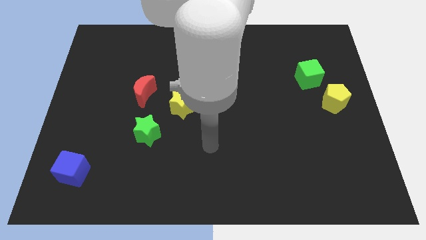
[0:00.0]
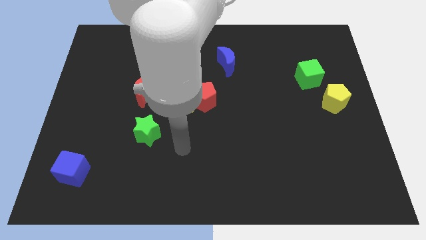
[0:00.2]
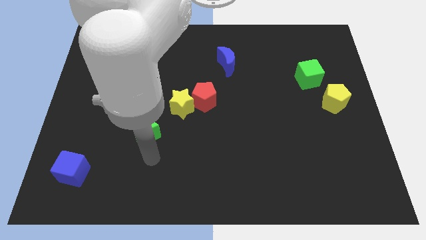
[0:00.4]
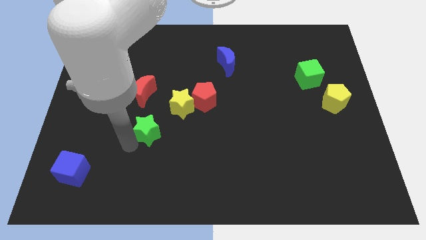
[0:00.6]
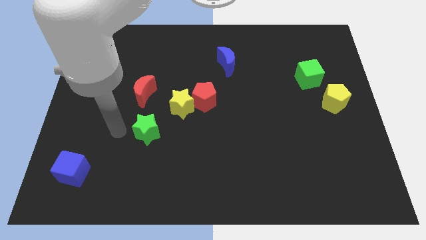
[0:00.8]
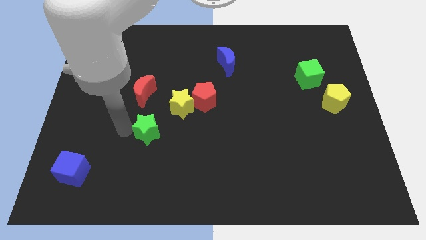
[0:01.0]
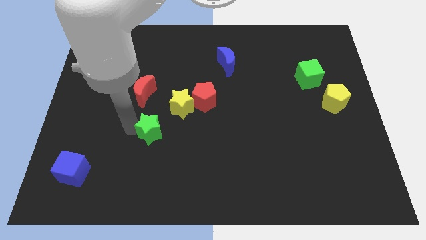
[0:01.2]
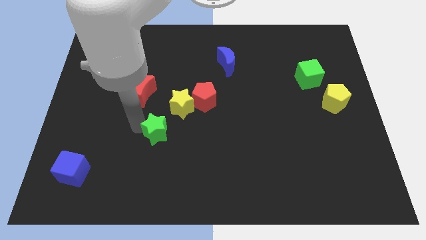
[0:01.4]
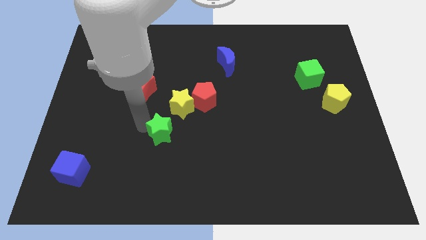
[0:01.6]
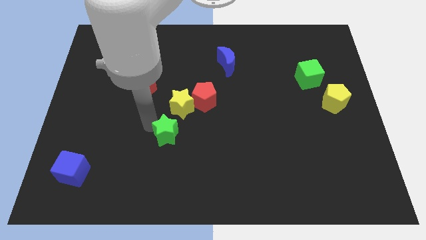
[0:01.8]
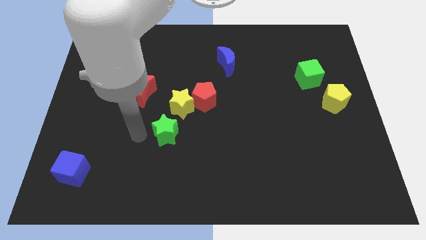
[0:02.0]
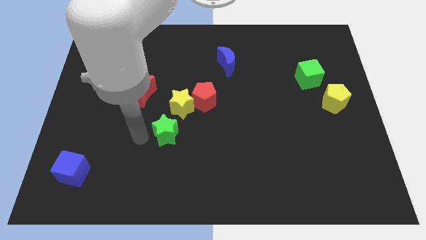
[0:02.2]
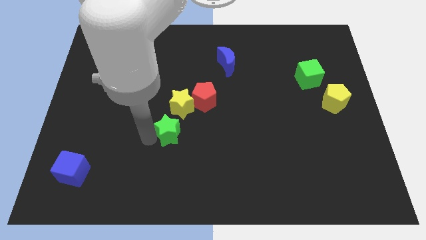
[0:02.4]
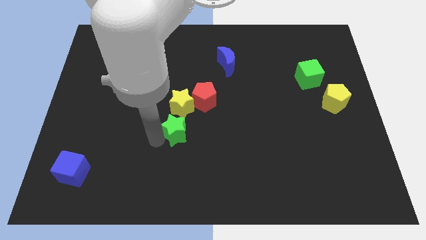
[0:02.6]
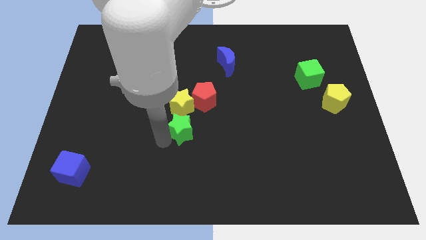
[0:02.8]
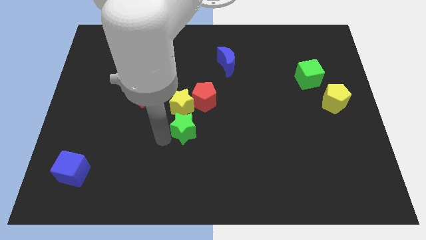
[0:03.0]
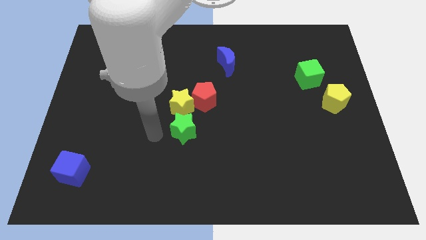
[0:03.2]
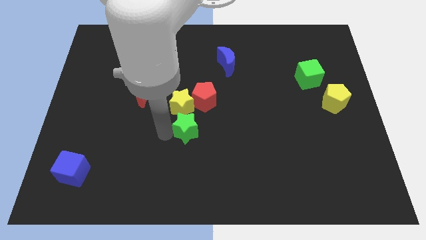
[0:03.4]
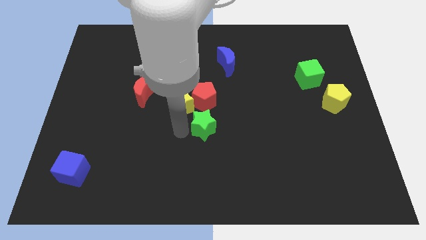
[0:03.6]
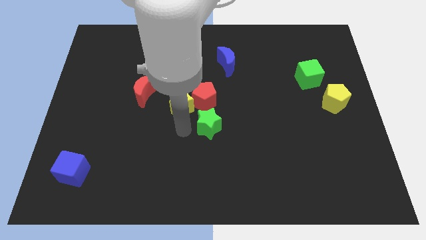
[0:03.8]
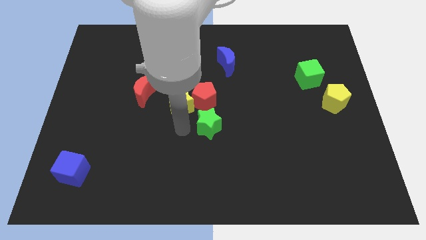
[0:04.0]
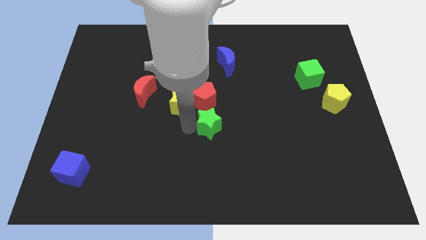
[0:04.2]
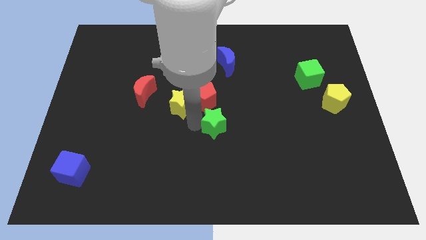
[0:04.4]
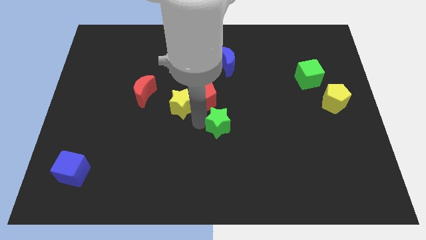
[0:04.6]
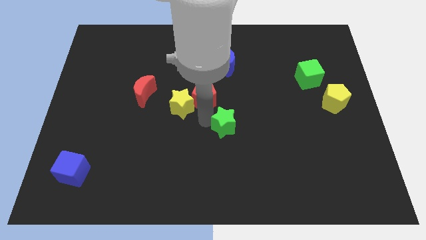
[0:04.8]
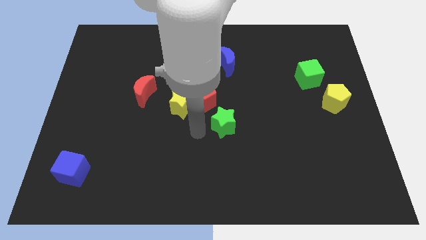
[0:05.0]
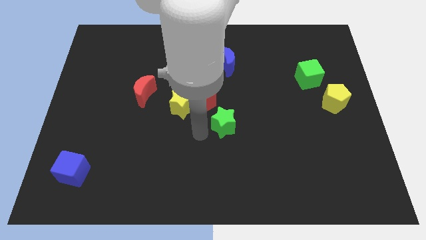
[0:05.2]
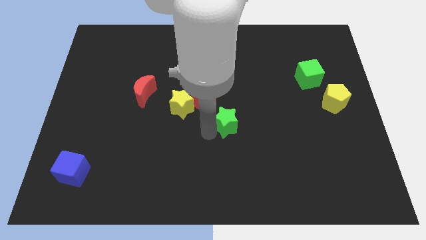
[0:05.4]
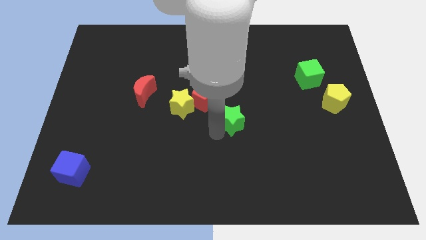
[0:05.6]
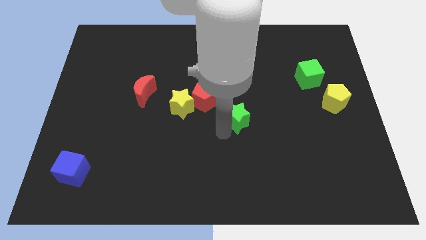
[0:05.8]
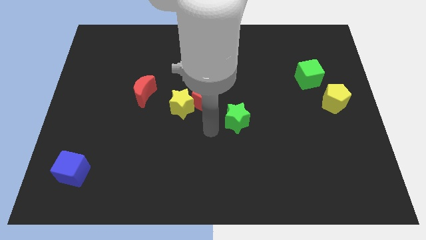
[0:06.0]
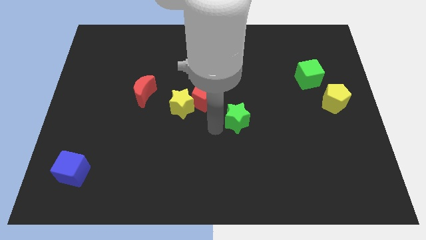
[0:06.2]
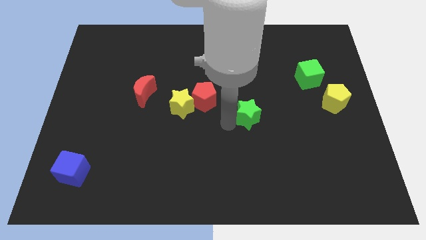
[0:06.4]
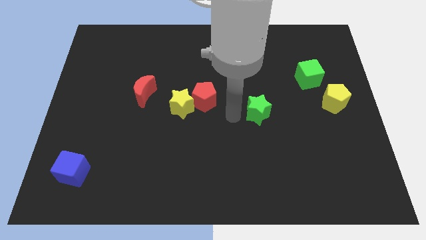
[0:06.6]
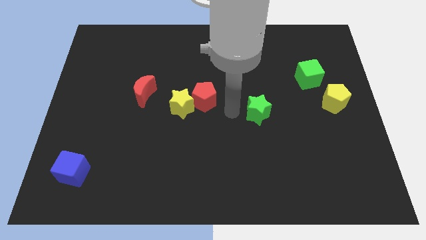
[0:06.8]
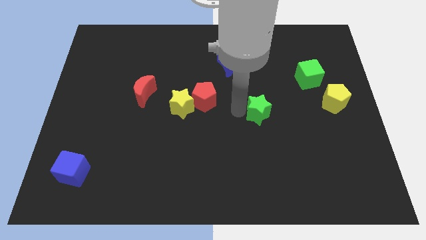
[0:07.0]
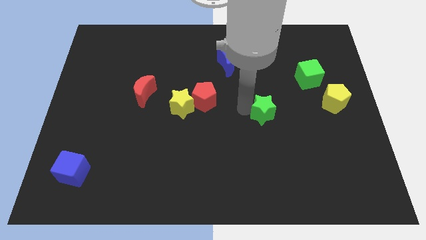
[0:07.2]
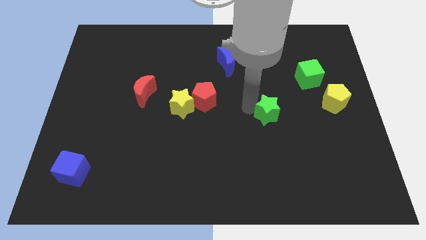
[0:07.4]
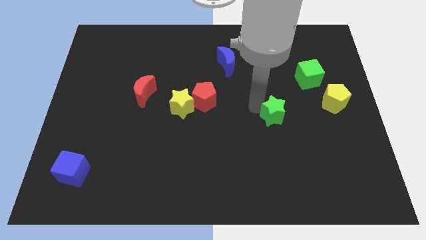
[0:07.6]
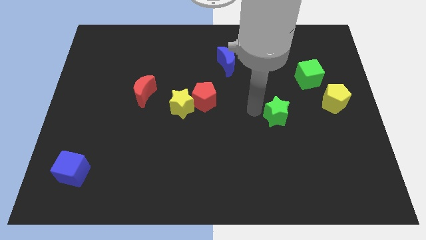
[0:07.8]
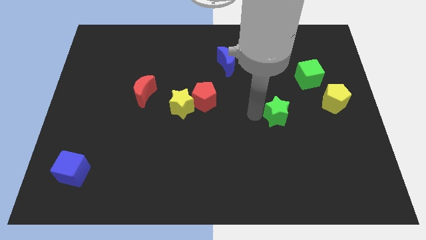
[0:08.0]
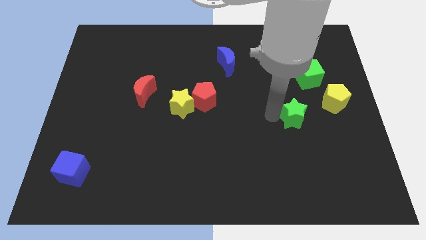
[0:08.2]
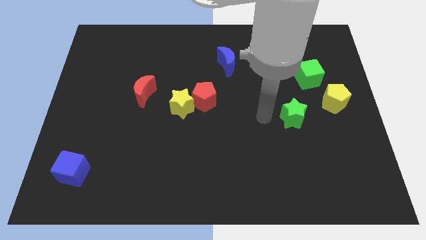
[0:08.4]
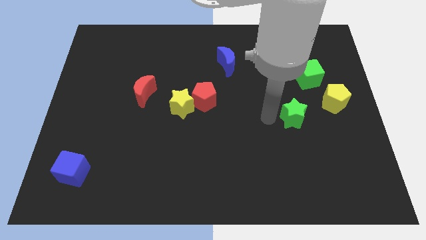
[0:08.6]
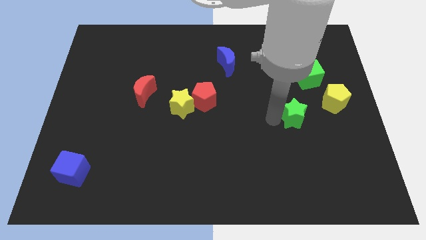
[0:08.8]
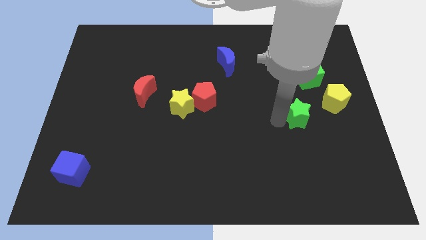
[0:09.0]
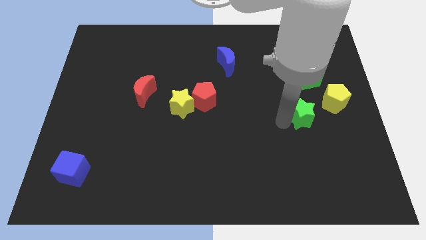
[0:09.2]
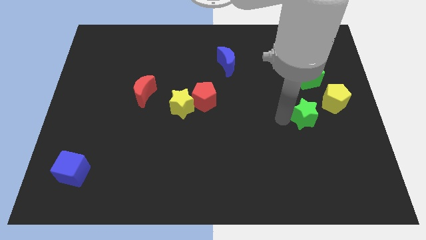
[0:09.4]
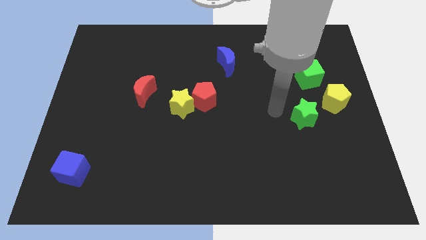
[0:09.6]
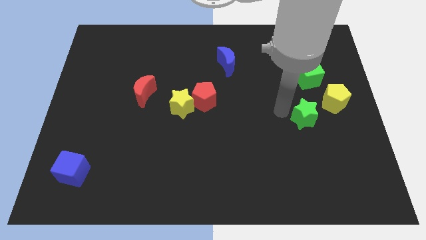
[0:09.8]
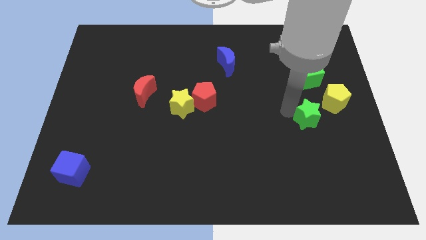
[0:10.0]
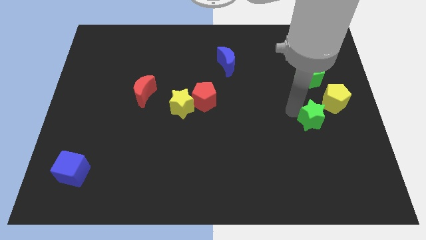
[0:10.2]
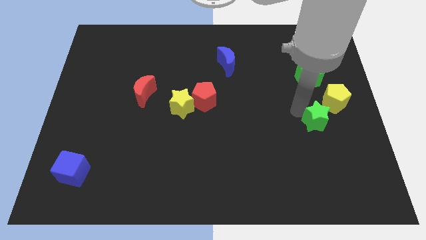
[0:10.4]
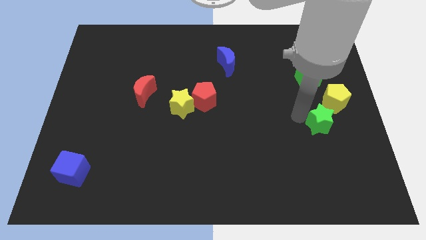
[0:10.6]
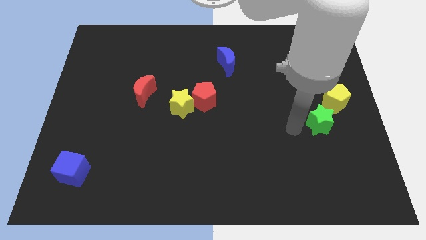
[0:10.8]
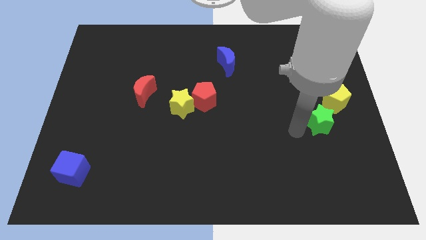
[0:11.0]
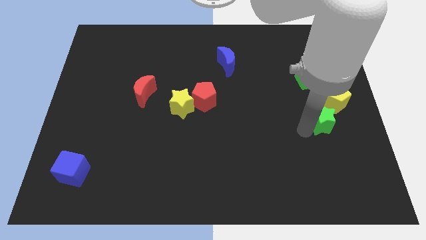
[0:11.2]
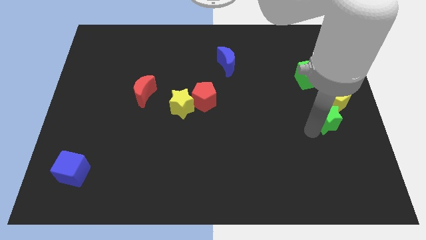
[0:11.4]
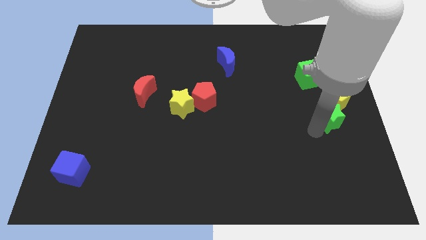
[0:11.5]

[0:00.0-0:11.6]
put the green star to the right side of the board

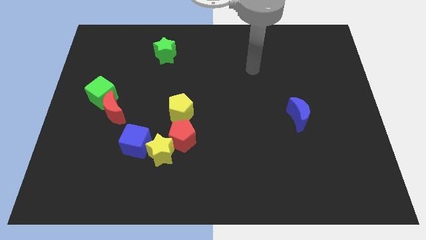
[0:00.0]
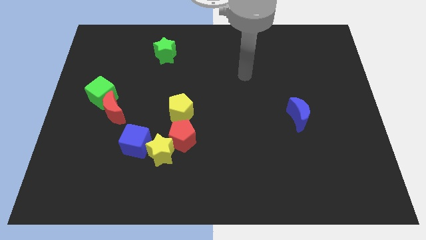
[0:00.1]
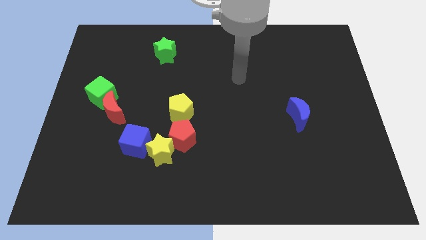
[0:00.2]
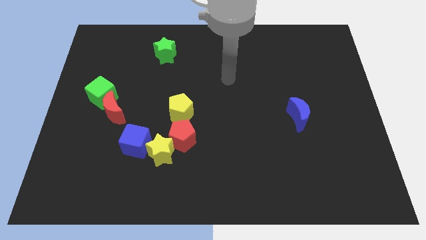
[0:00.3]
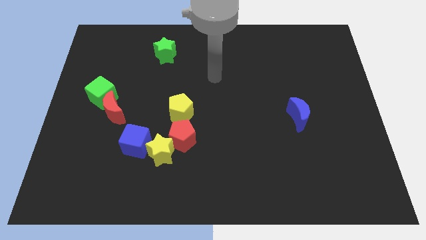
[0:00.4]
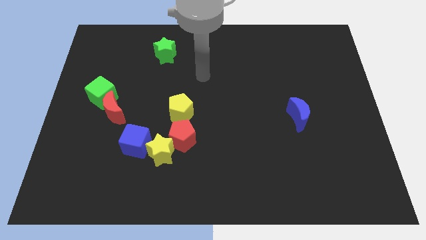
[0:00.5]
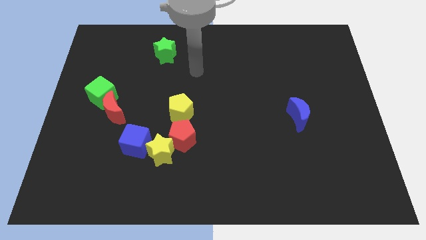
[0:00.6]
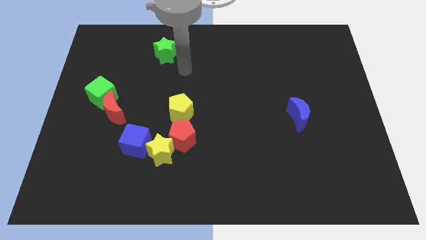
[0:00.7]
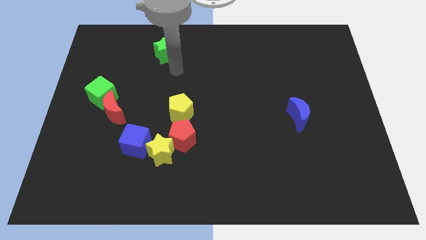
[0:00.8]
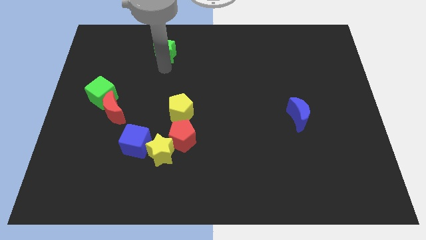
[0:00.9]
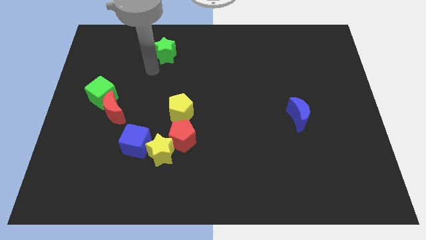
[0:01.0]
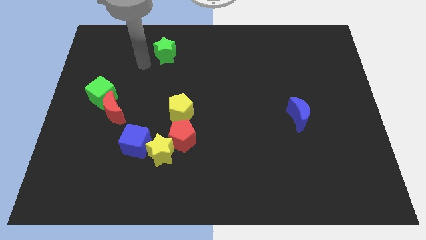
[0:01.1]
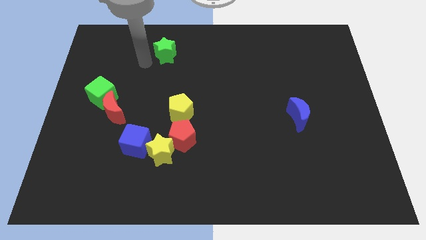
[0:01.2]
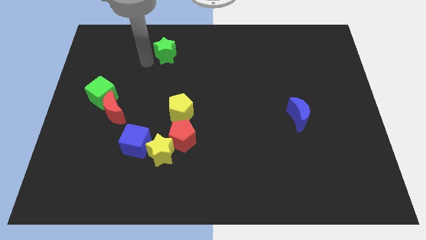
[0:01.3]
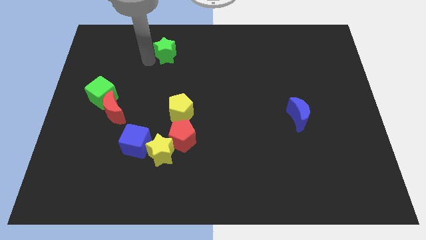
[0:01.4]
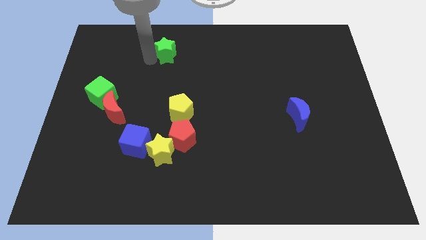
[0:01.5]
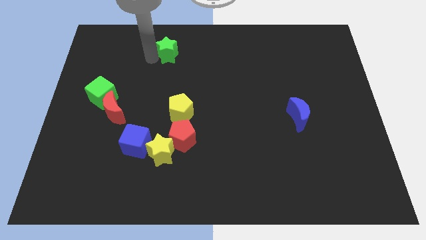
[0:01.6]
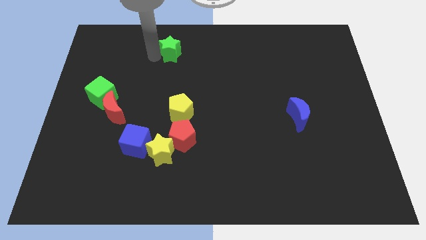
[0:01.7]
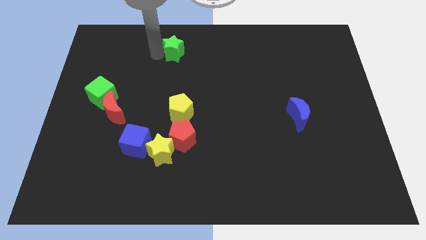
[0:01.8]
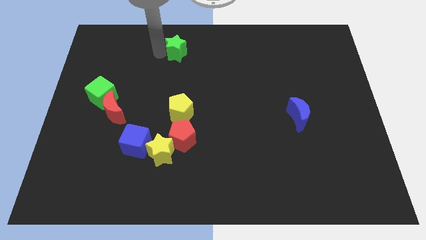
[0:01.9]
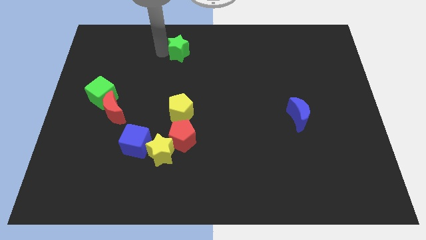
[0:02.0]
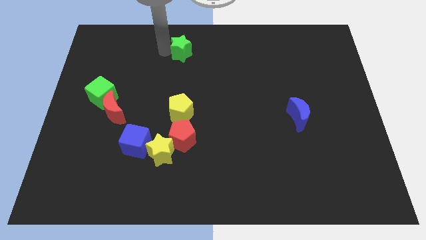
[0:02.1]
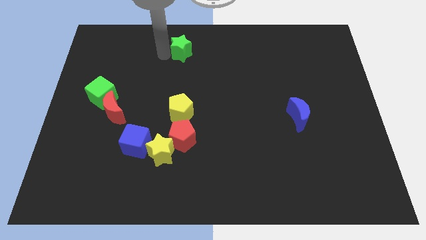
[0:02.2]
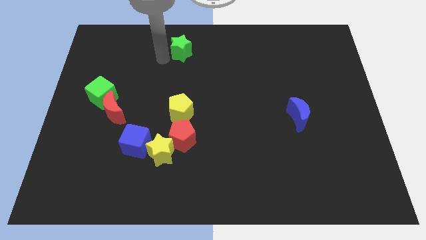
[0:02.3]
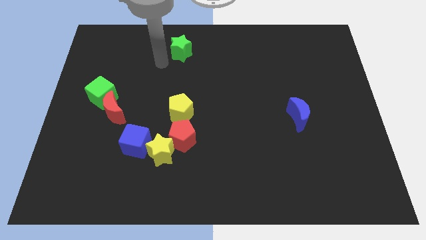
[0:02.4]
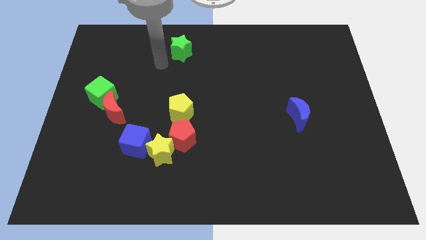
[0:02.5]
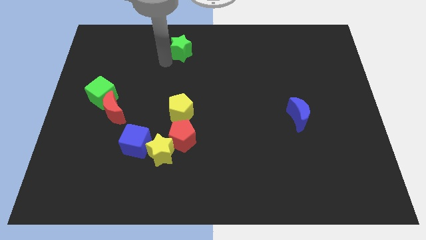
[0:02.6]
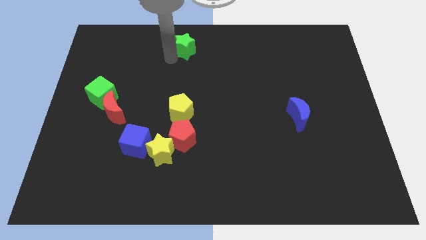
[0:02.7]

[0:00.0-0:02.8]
push the green star to the top
